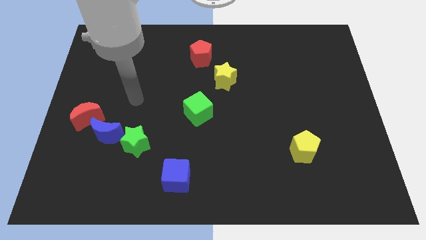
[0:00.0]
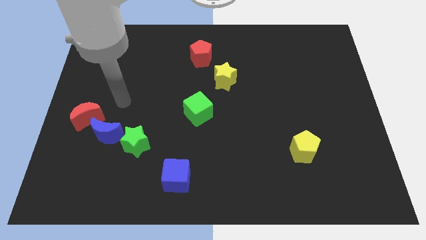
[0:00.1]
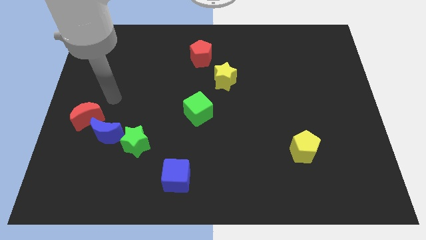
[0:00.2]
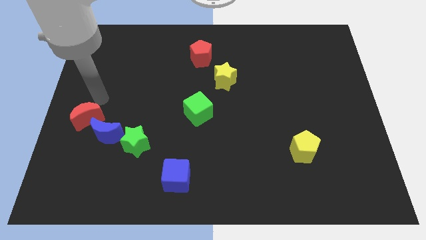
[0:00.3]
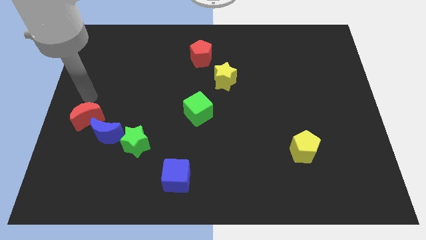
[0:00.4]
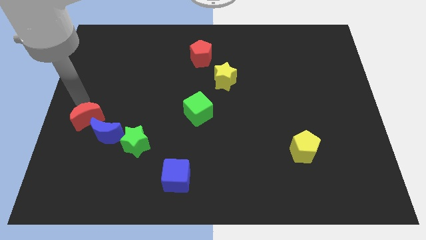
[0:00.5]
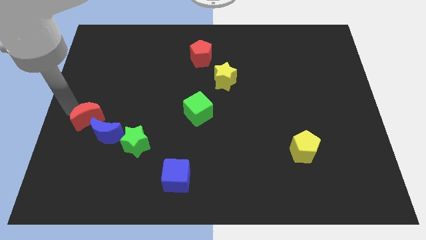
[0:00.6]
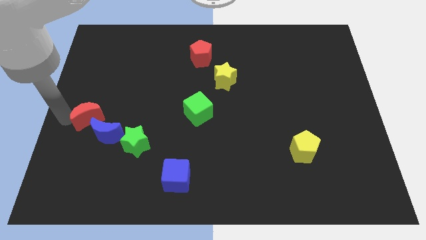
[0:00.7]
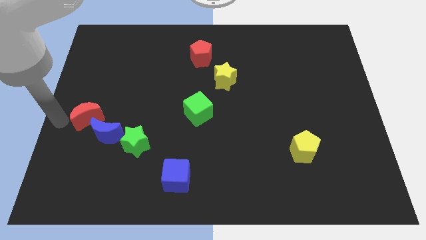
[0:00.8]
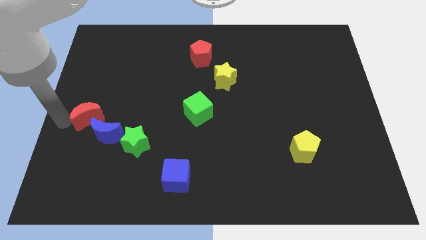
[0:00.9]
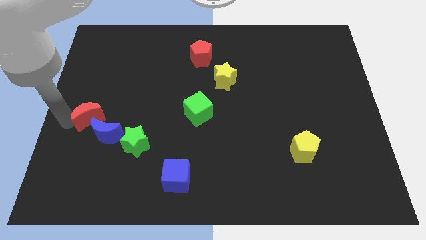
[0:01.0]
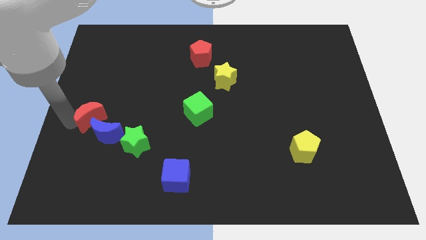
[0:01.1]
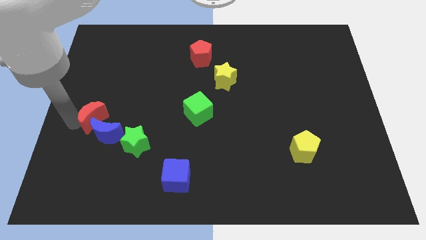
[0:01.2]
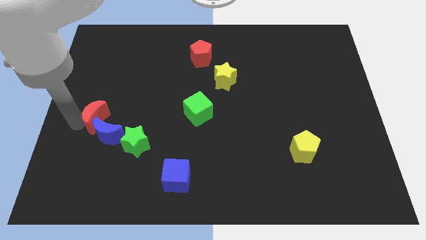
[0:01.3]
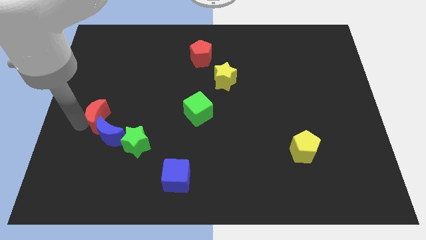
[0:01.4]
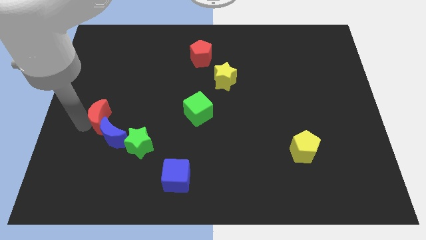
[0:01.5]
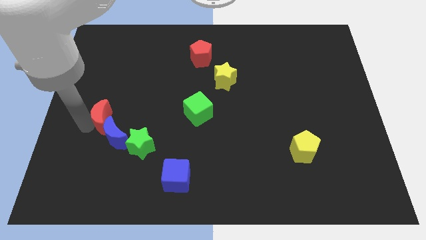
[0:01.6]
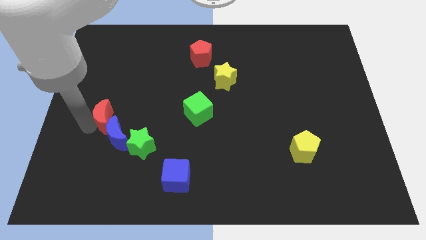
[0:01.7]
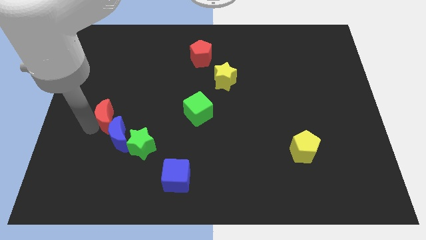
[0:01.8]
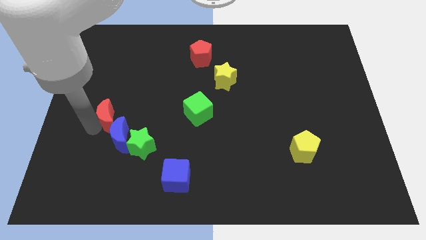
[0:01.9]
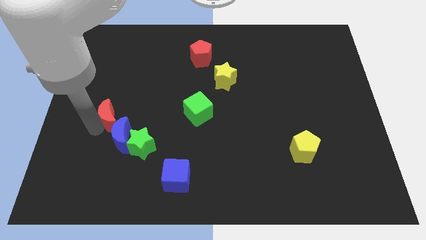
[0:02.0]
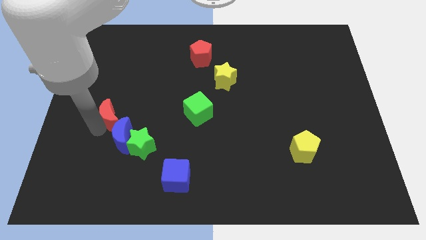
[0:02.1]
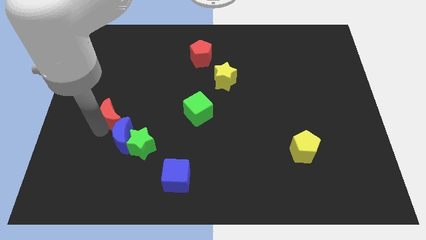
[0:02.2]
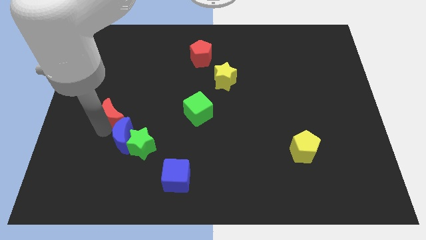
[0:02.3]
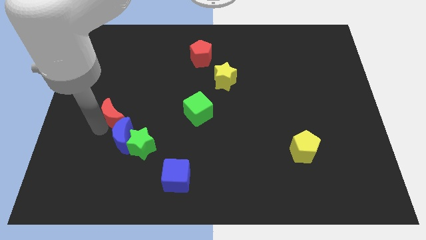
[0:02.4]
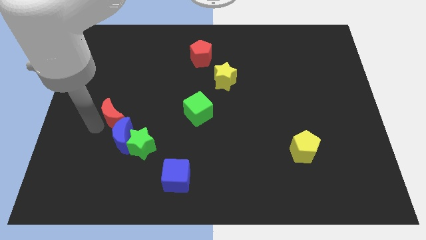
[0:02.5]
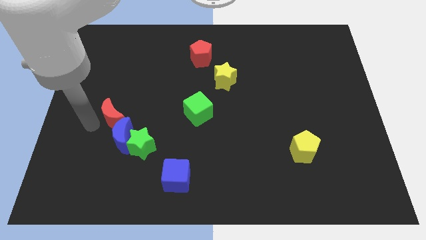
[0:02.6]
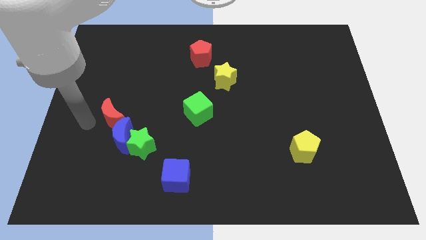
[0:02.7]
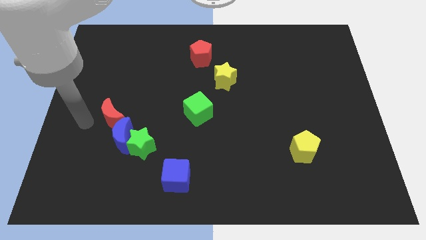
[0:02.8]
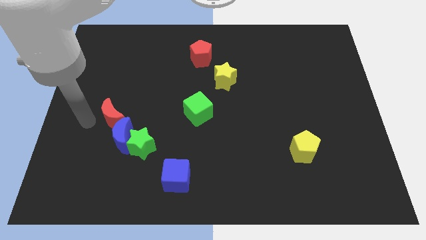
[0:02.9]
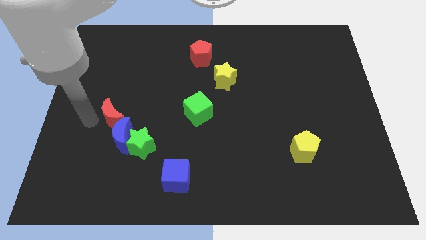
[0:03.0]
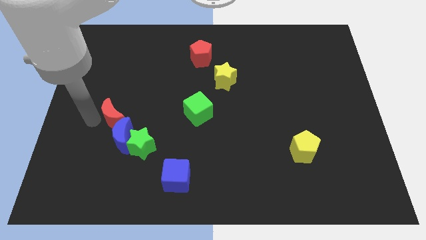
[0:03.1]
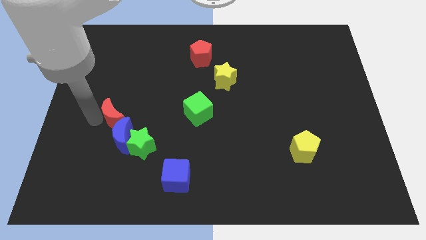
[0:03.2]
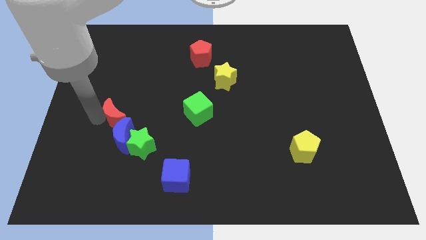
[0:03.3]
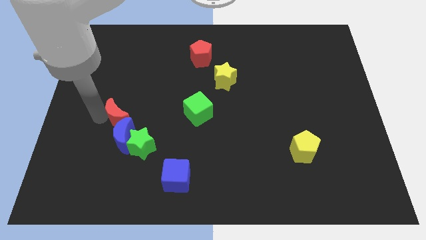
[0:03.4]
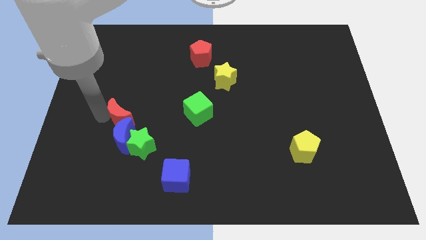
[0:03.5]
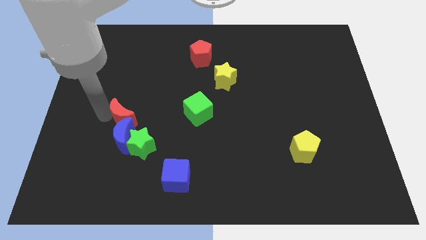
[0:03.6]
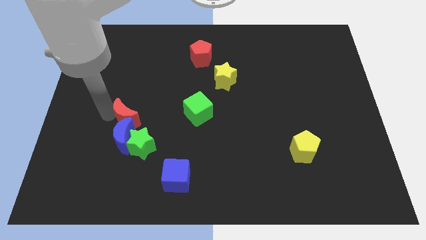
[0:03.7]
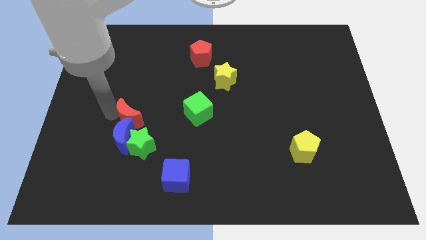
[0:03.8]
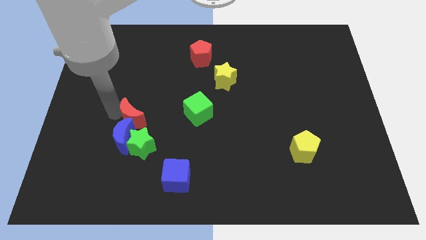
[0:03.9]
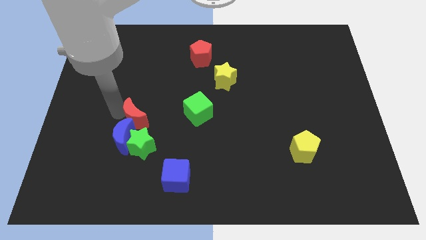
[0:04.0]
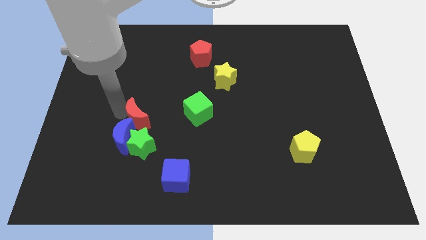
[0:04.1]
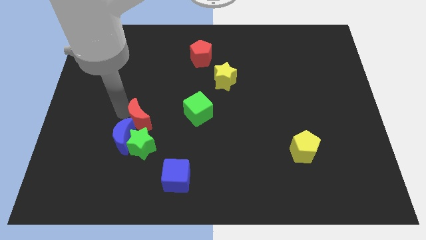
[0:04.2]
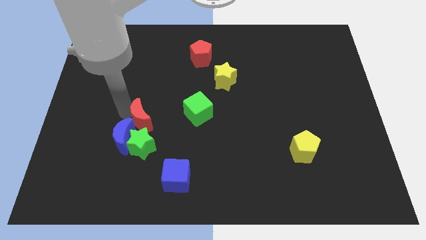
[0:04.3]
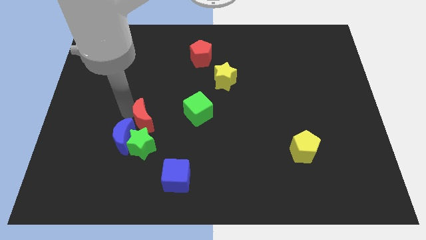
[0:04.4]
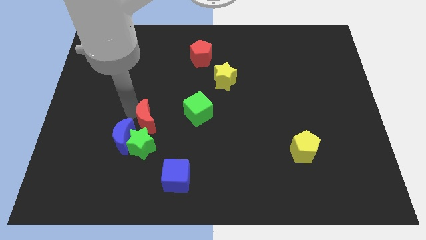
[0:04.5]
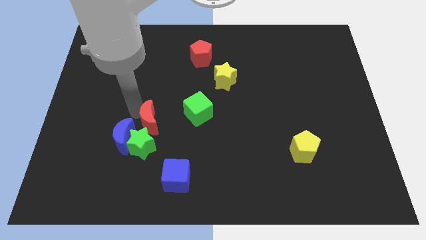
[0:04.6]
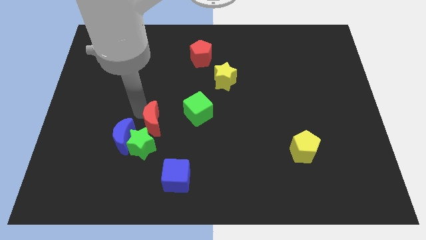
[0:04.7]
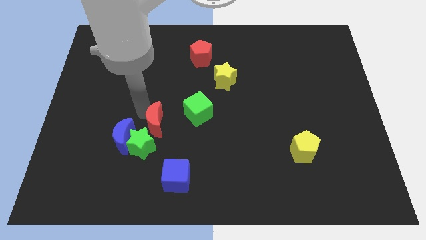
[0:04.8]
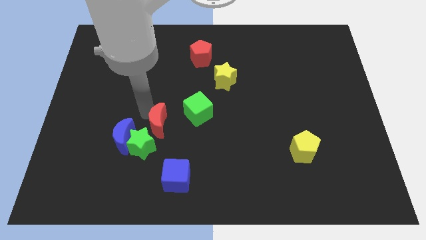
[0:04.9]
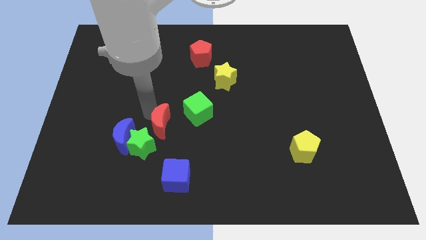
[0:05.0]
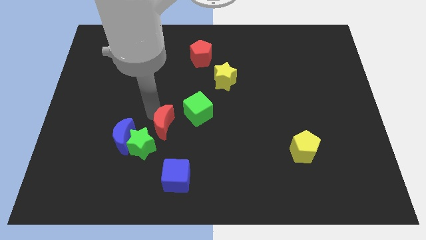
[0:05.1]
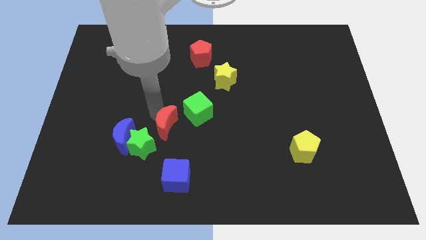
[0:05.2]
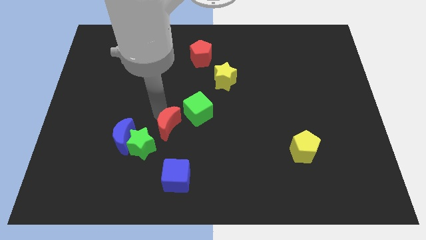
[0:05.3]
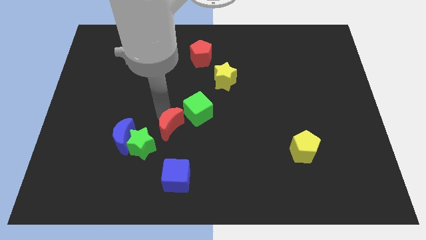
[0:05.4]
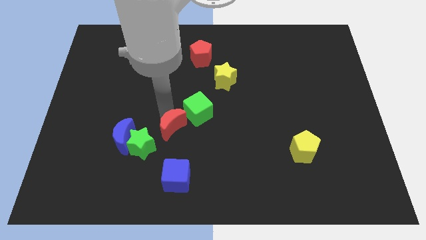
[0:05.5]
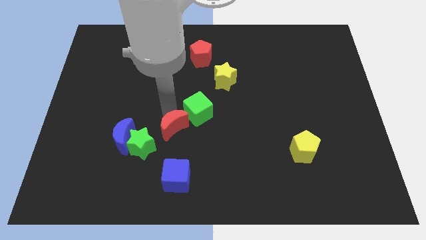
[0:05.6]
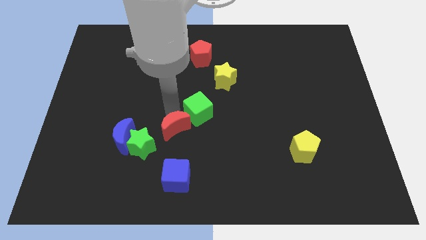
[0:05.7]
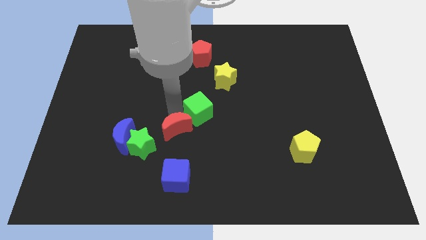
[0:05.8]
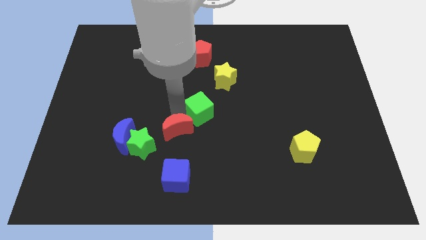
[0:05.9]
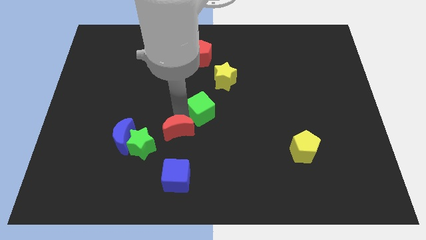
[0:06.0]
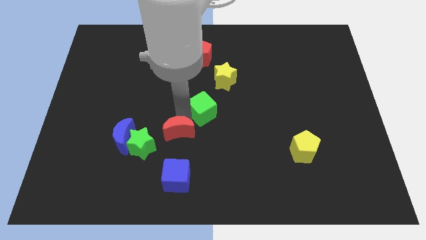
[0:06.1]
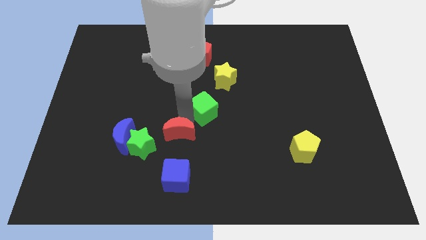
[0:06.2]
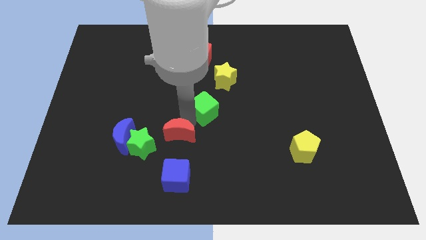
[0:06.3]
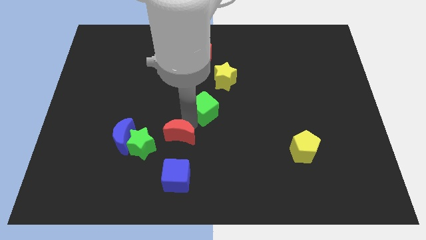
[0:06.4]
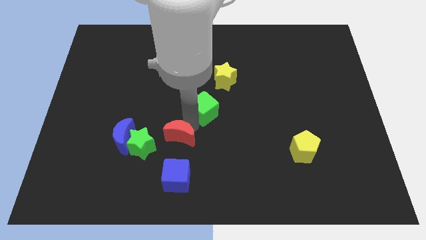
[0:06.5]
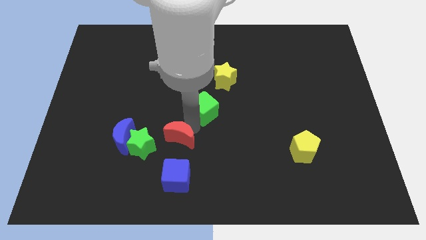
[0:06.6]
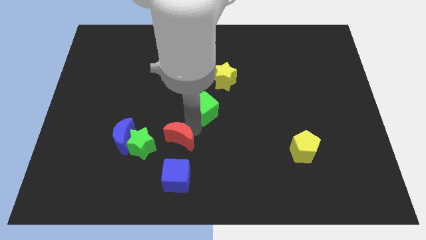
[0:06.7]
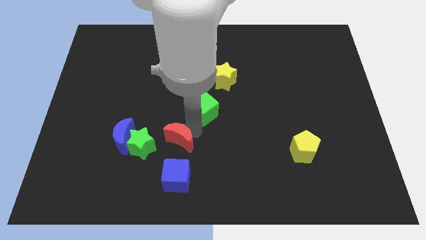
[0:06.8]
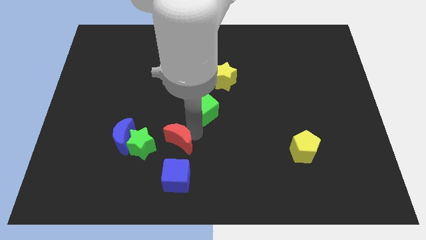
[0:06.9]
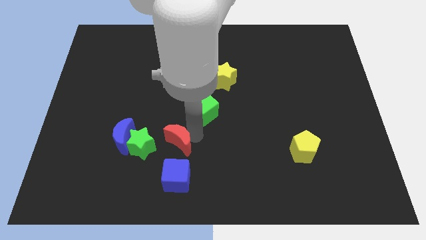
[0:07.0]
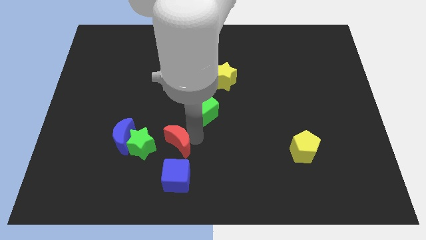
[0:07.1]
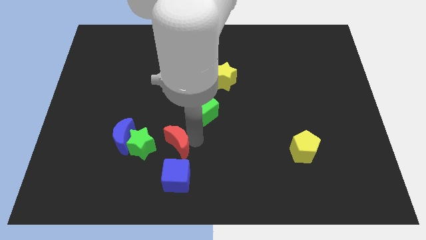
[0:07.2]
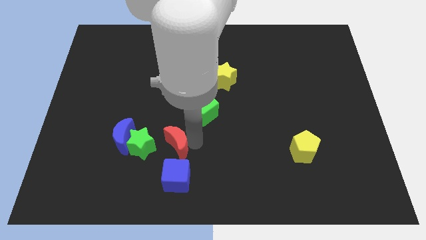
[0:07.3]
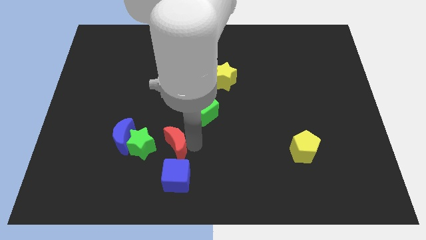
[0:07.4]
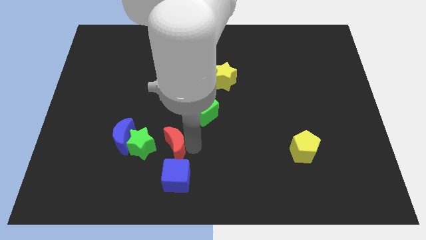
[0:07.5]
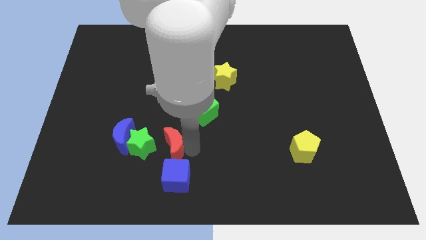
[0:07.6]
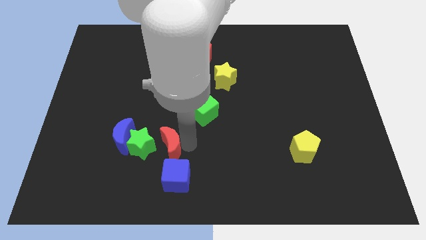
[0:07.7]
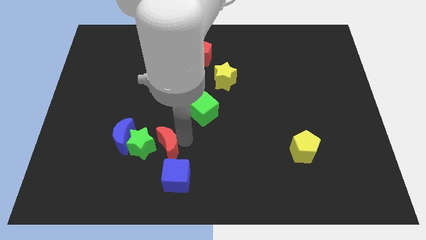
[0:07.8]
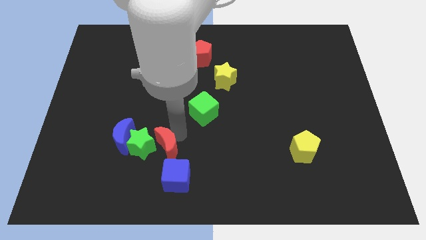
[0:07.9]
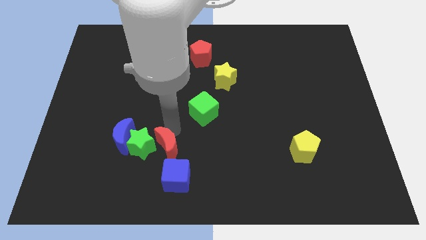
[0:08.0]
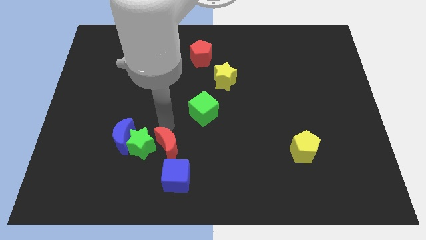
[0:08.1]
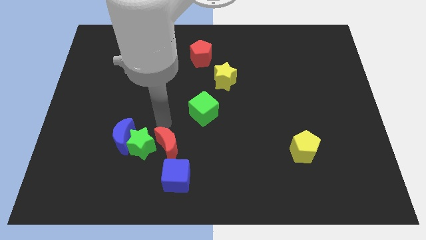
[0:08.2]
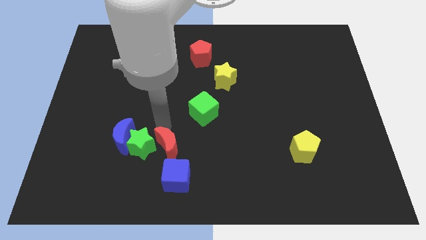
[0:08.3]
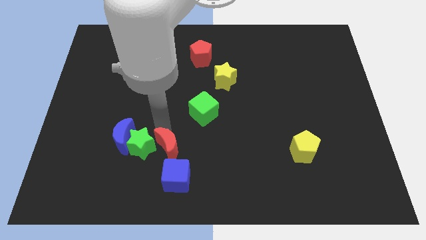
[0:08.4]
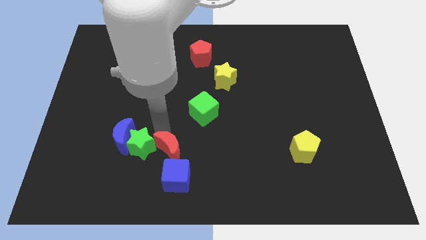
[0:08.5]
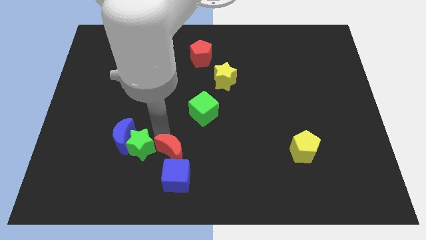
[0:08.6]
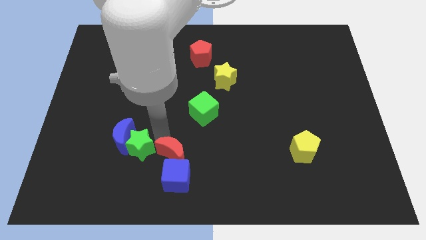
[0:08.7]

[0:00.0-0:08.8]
push the red moon next to the blue cube
